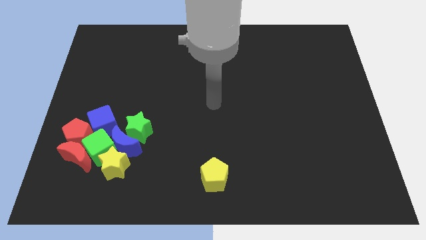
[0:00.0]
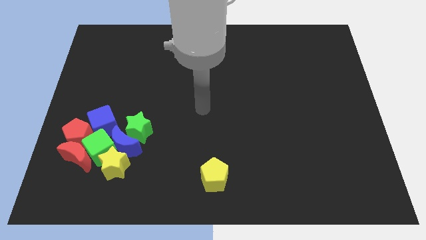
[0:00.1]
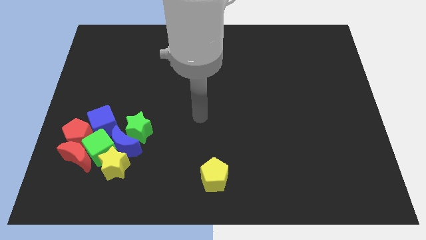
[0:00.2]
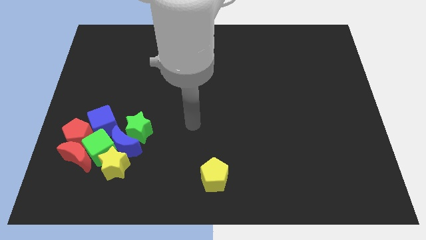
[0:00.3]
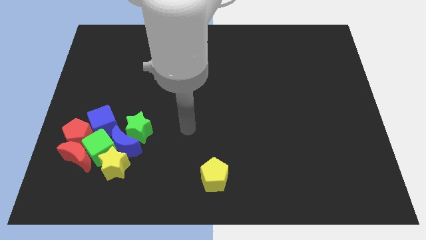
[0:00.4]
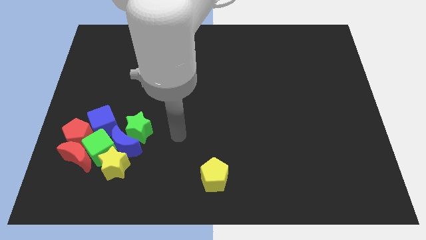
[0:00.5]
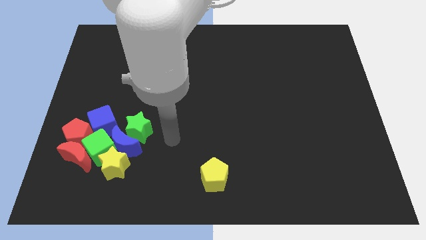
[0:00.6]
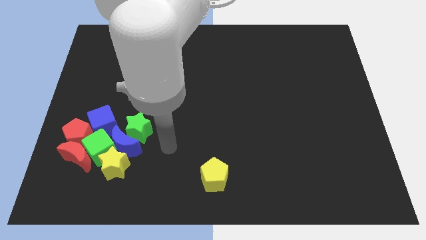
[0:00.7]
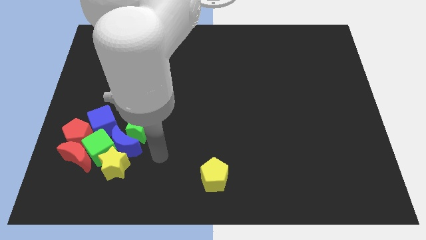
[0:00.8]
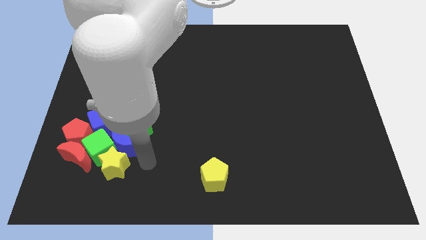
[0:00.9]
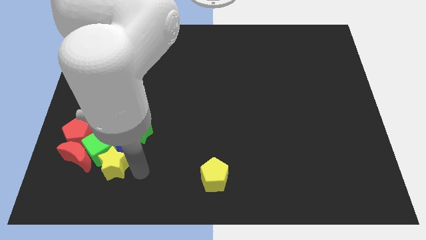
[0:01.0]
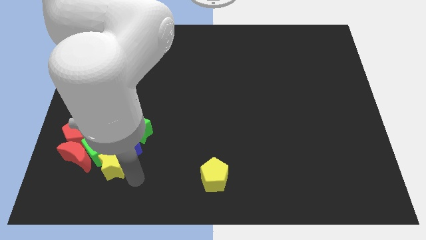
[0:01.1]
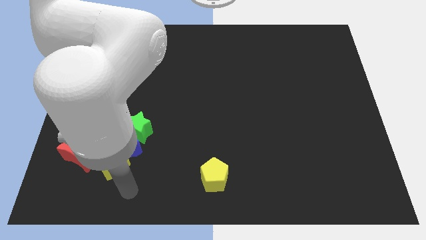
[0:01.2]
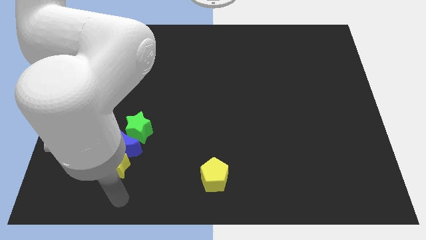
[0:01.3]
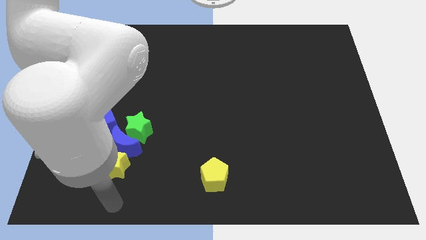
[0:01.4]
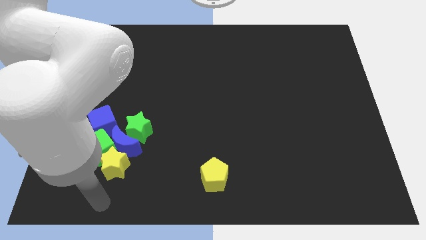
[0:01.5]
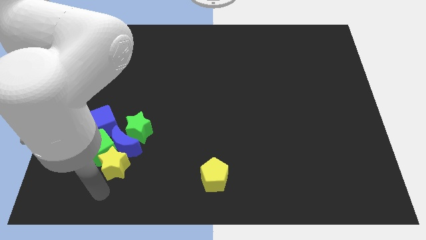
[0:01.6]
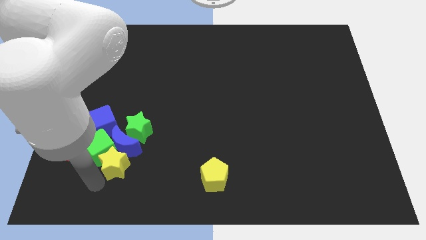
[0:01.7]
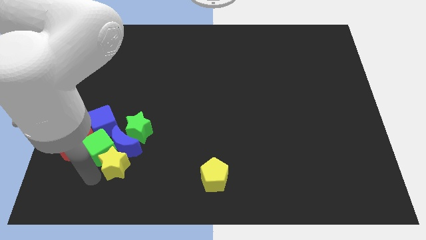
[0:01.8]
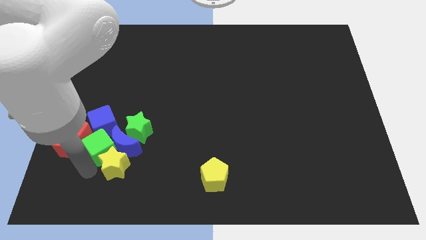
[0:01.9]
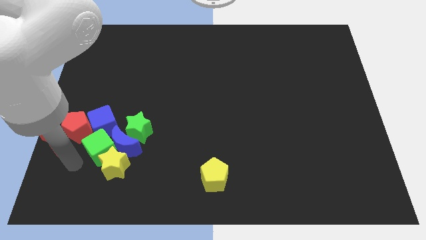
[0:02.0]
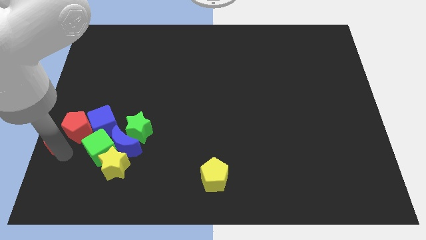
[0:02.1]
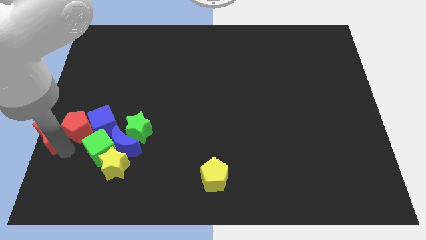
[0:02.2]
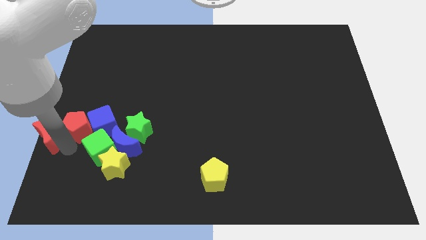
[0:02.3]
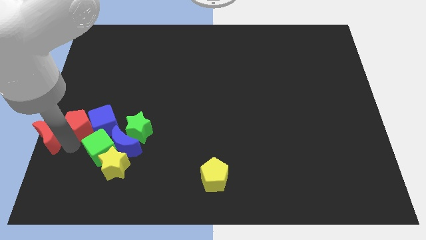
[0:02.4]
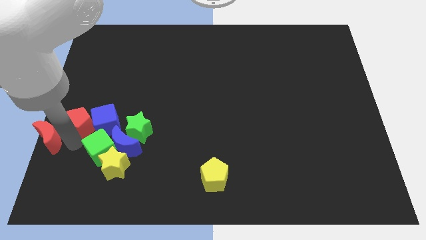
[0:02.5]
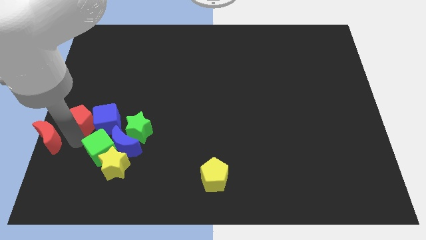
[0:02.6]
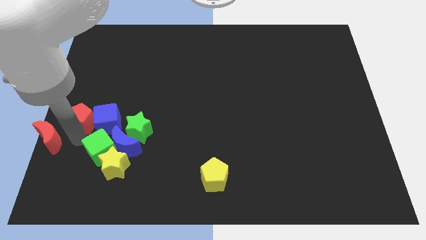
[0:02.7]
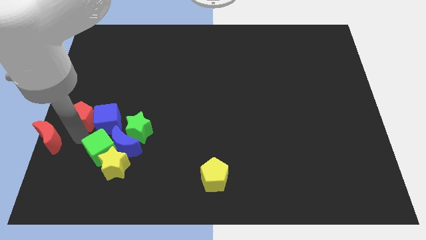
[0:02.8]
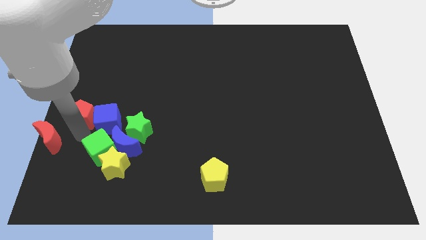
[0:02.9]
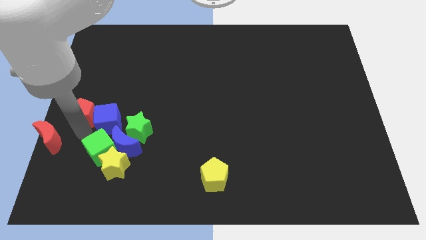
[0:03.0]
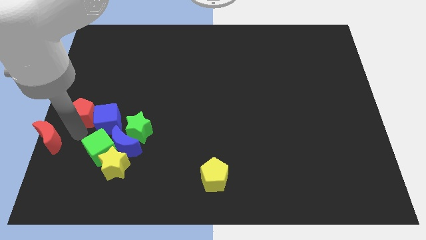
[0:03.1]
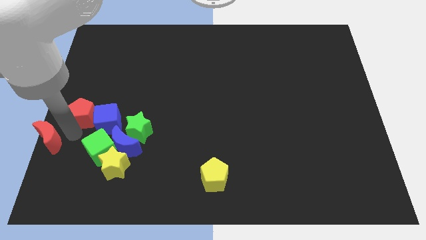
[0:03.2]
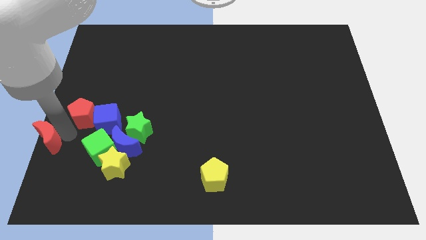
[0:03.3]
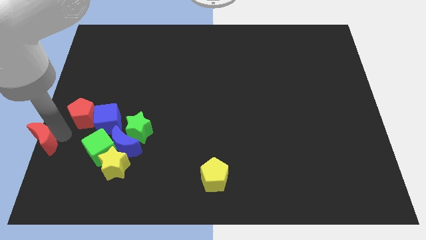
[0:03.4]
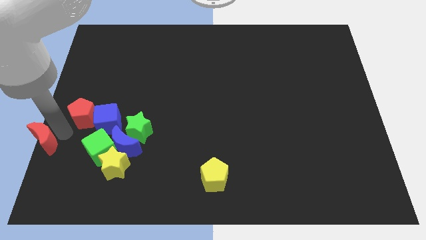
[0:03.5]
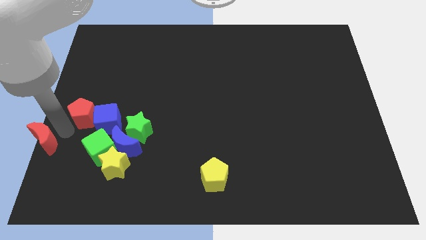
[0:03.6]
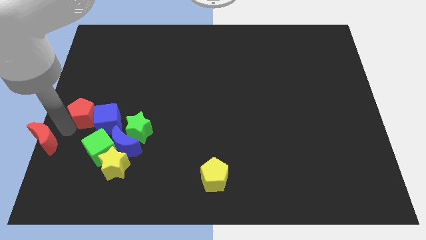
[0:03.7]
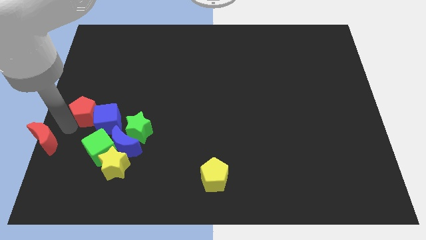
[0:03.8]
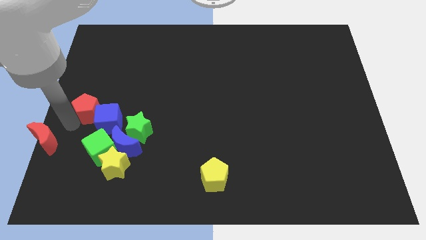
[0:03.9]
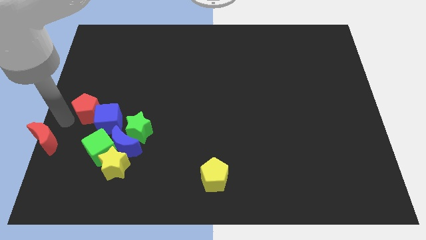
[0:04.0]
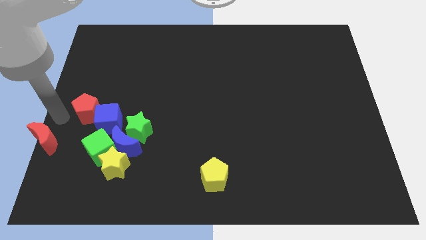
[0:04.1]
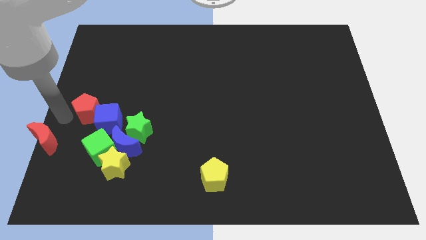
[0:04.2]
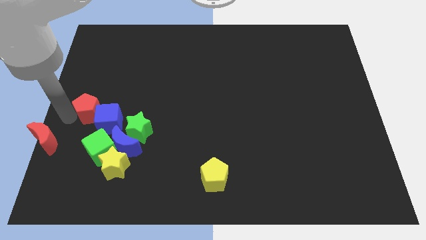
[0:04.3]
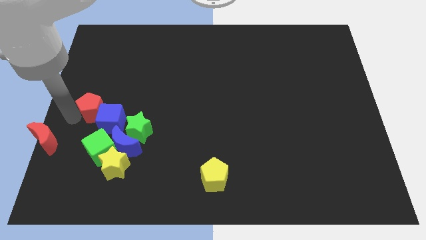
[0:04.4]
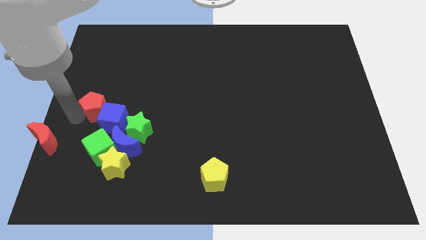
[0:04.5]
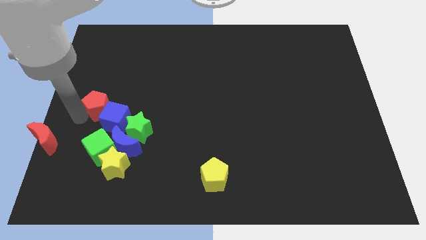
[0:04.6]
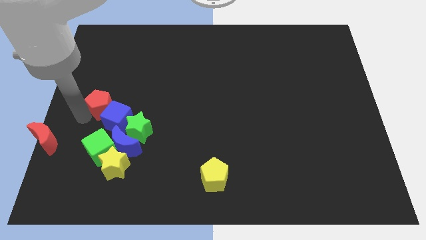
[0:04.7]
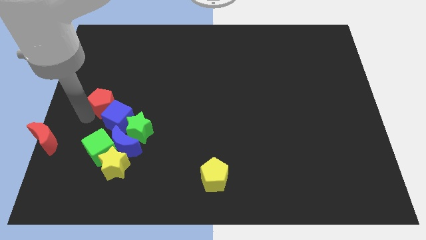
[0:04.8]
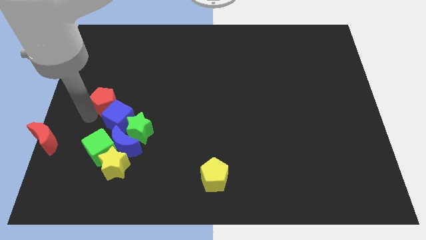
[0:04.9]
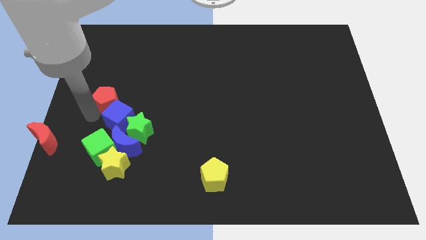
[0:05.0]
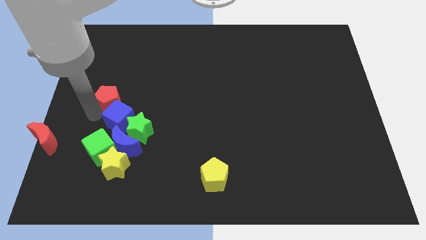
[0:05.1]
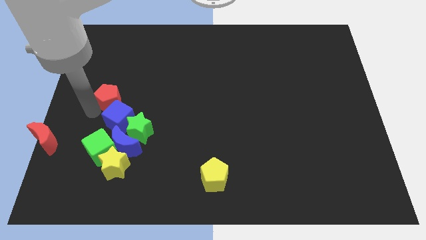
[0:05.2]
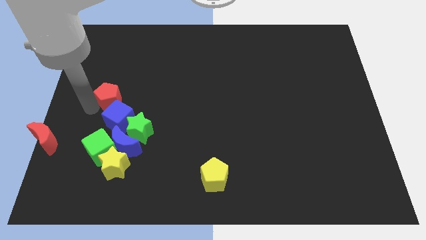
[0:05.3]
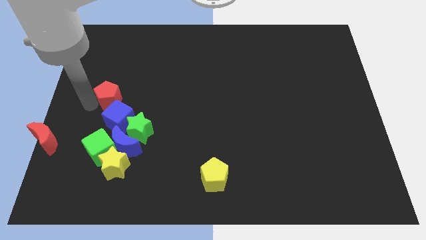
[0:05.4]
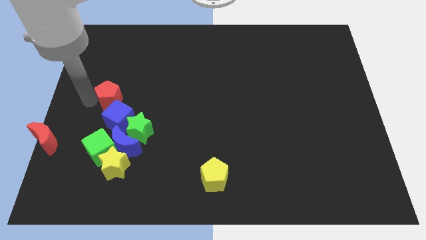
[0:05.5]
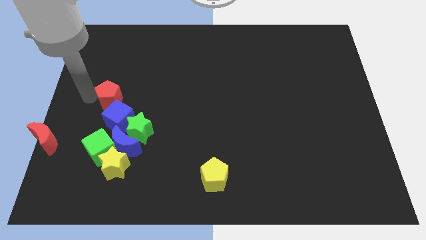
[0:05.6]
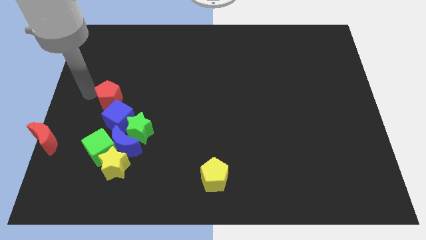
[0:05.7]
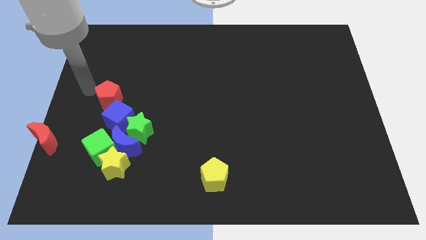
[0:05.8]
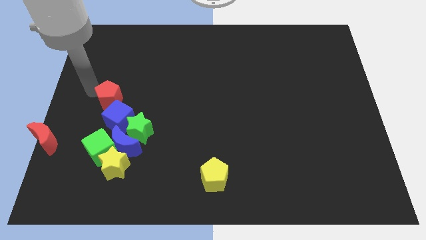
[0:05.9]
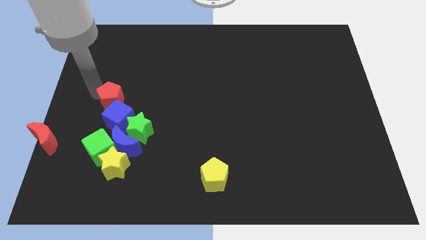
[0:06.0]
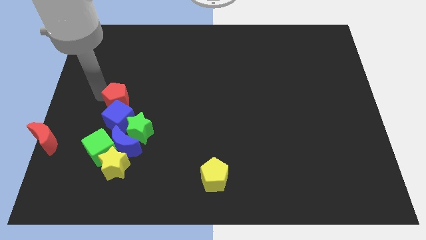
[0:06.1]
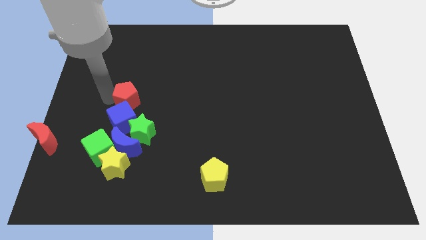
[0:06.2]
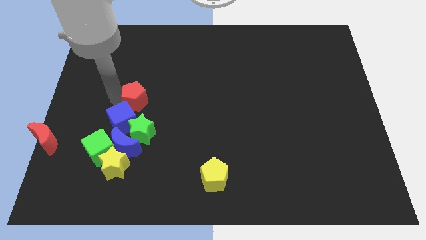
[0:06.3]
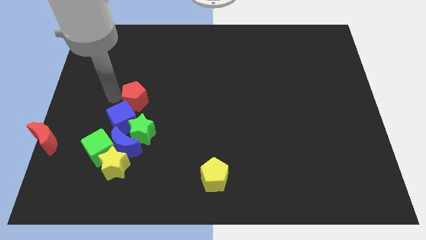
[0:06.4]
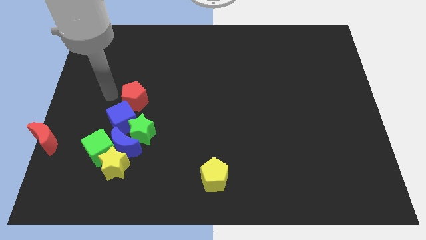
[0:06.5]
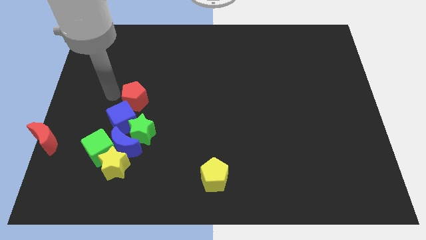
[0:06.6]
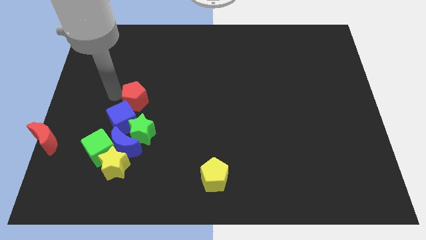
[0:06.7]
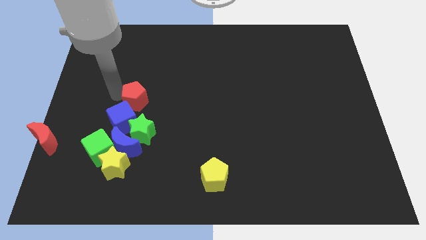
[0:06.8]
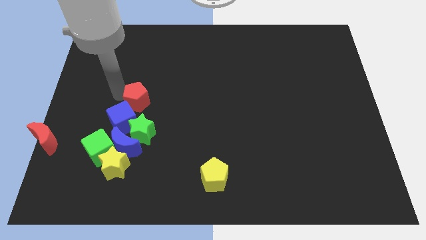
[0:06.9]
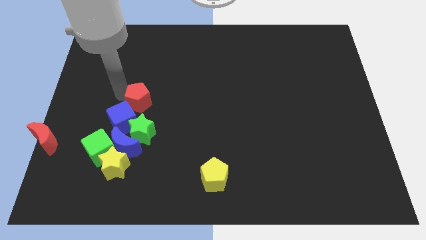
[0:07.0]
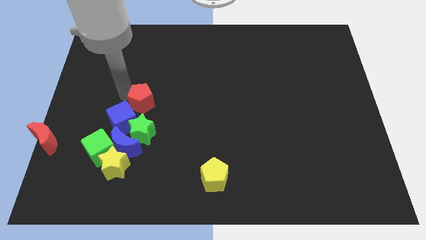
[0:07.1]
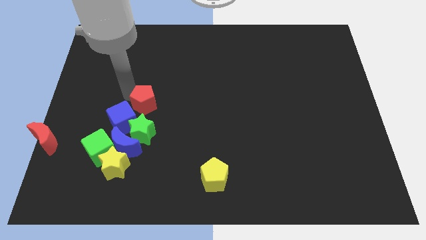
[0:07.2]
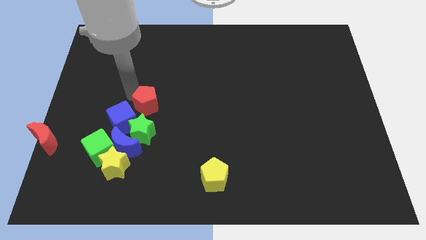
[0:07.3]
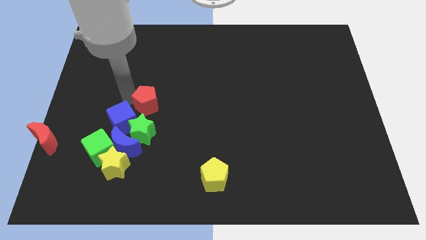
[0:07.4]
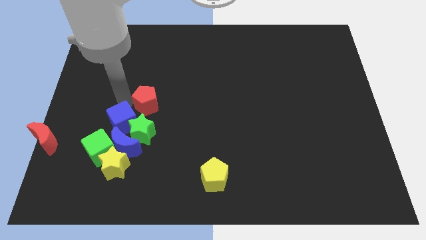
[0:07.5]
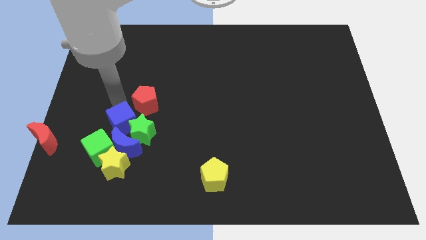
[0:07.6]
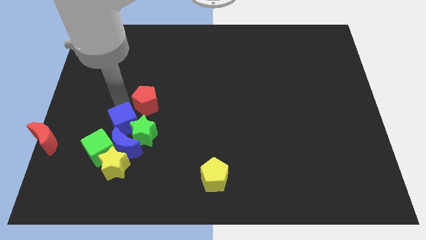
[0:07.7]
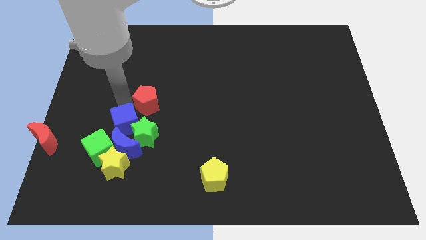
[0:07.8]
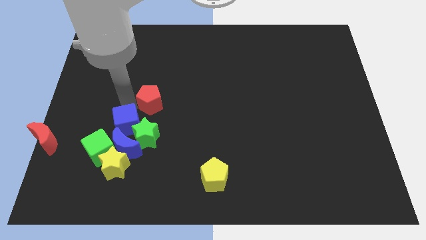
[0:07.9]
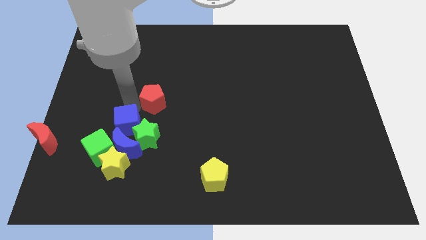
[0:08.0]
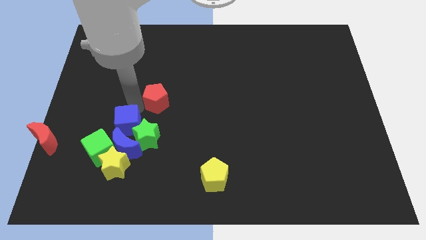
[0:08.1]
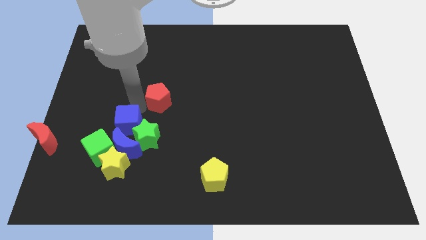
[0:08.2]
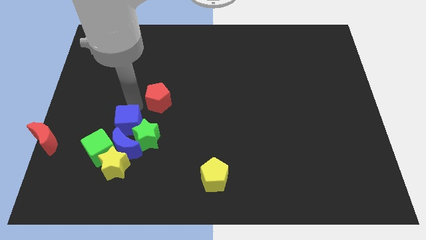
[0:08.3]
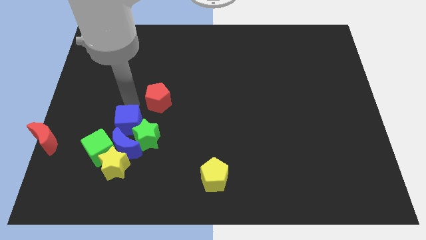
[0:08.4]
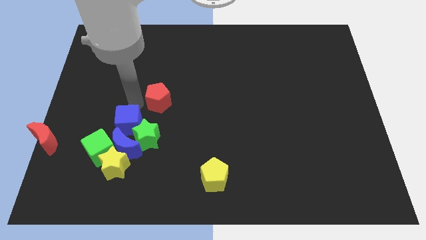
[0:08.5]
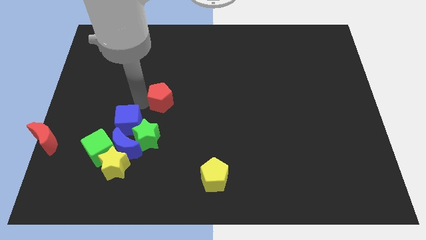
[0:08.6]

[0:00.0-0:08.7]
put the red pentagon to the center
